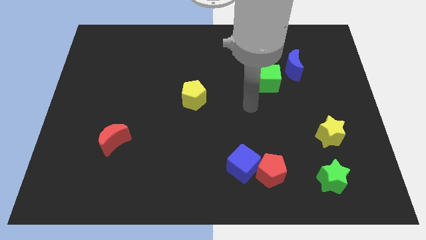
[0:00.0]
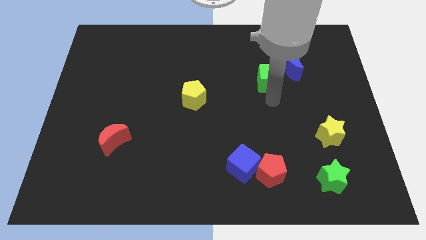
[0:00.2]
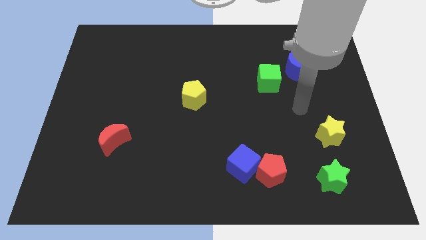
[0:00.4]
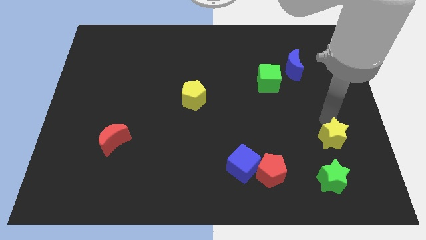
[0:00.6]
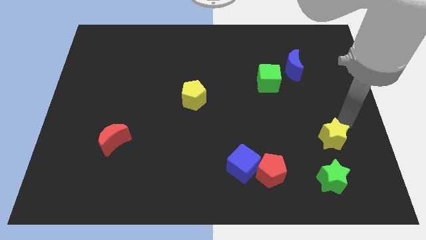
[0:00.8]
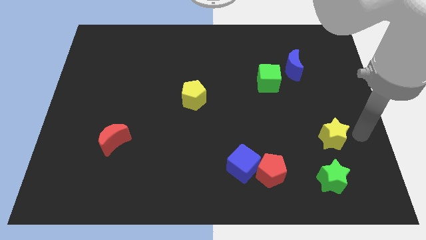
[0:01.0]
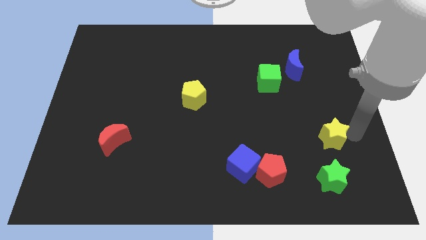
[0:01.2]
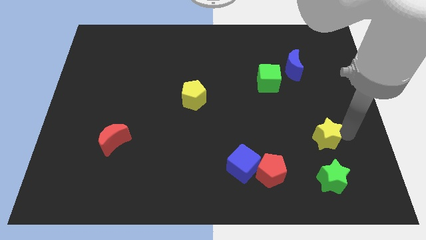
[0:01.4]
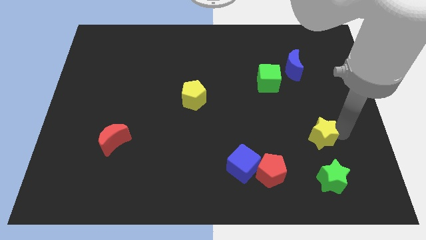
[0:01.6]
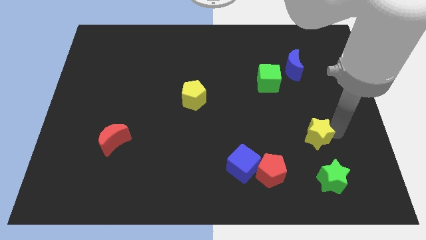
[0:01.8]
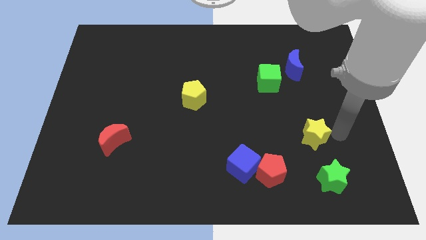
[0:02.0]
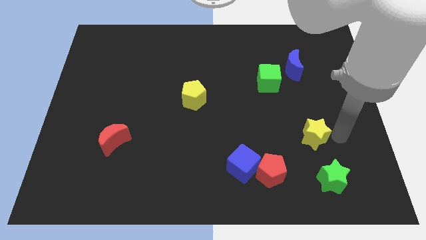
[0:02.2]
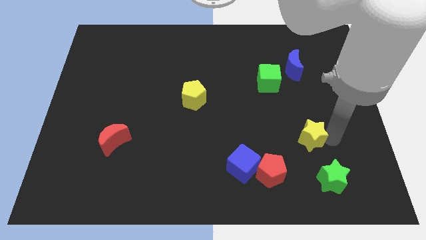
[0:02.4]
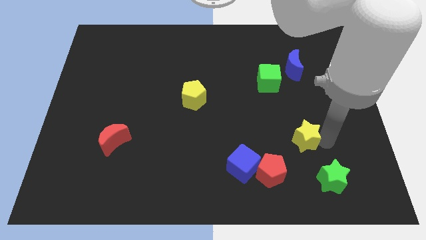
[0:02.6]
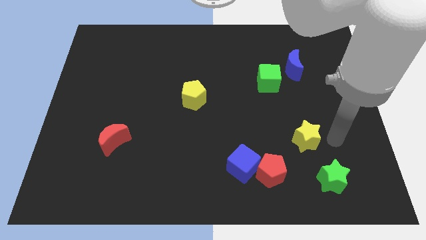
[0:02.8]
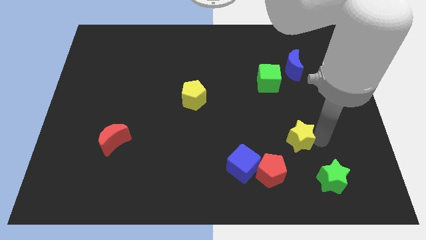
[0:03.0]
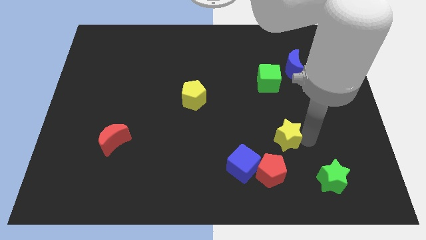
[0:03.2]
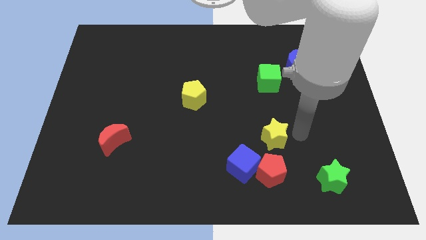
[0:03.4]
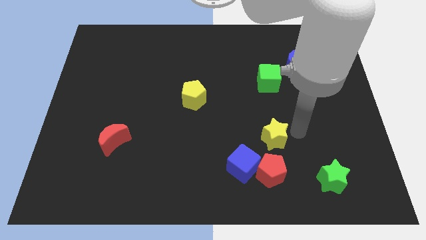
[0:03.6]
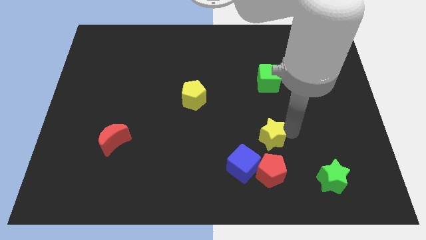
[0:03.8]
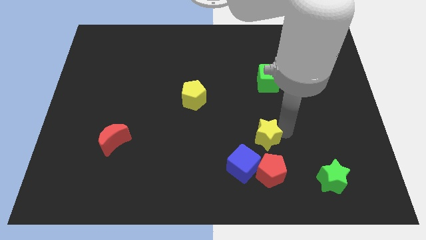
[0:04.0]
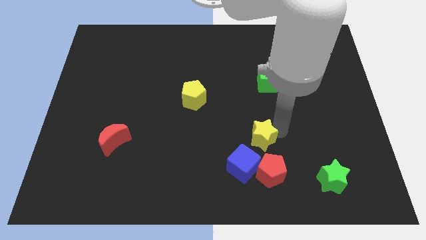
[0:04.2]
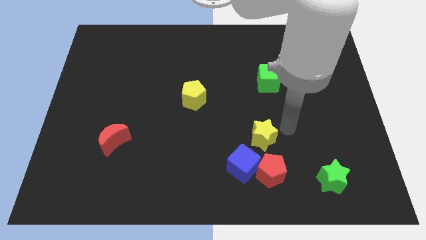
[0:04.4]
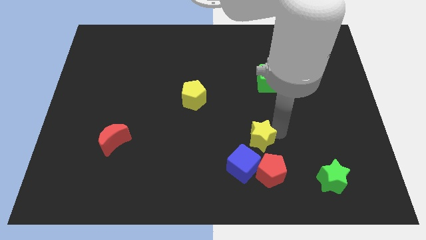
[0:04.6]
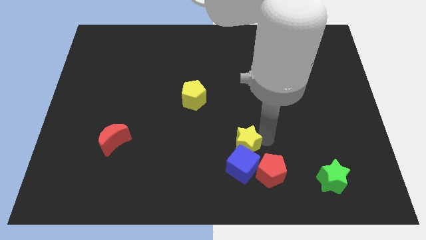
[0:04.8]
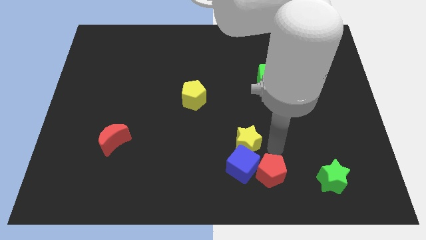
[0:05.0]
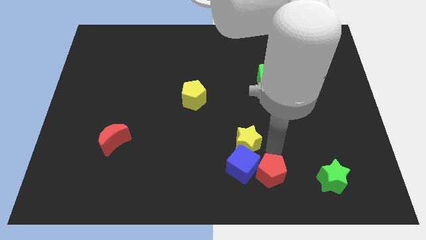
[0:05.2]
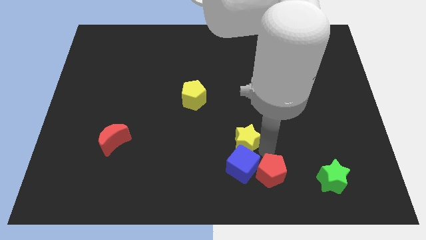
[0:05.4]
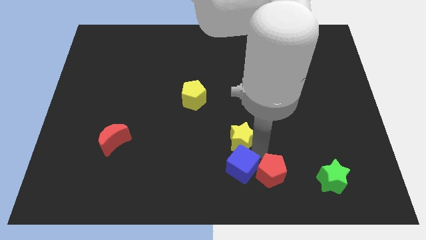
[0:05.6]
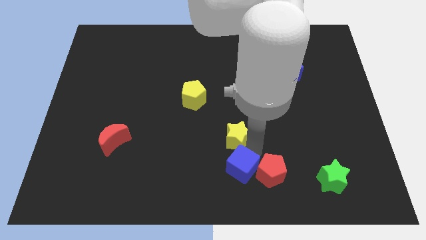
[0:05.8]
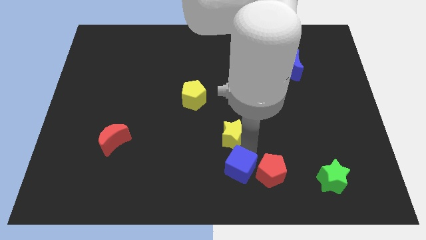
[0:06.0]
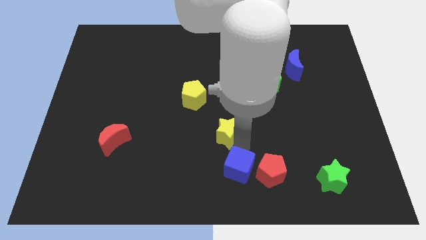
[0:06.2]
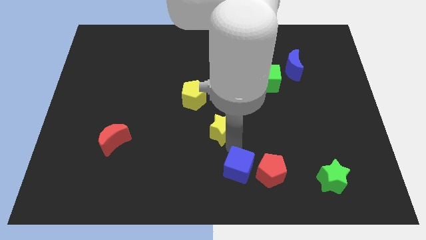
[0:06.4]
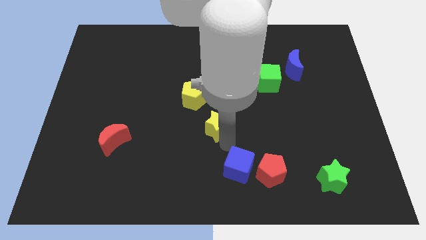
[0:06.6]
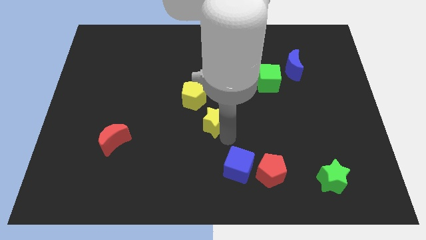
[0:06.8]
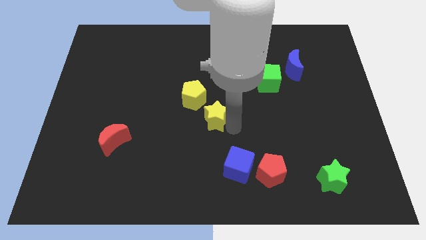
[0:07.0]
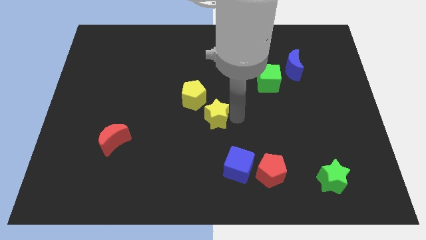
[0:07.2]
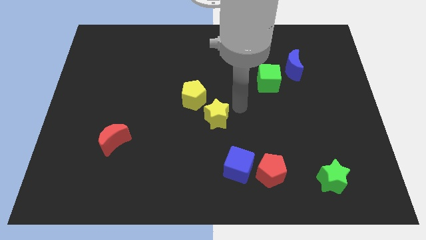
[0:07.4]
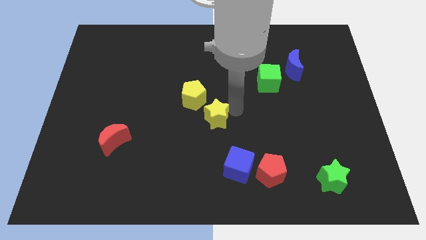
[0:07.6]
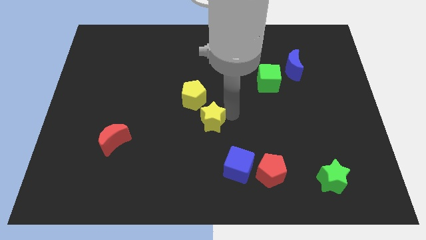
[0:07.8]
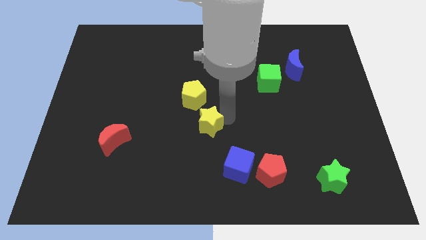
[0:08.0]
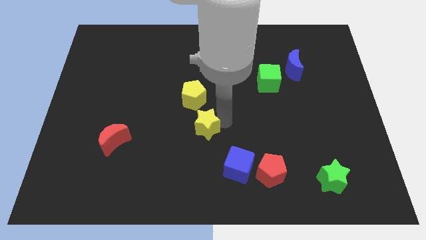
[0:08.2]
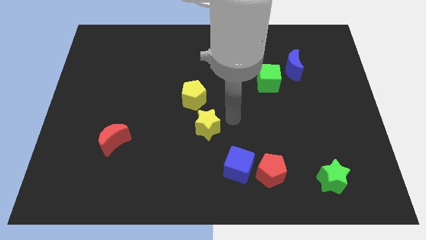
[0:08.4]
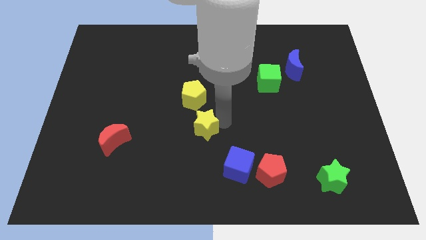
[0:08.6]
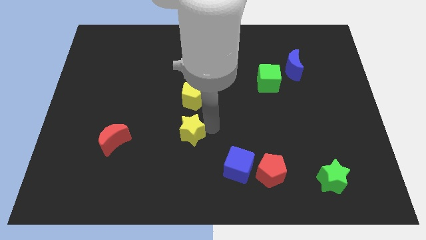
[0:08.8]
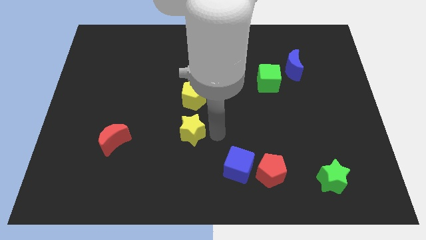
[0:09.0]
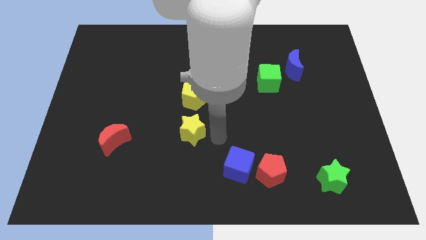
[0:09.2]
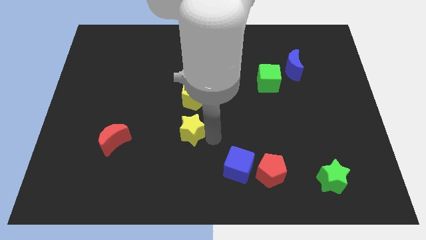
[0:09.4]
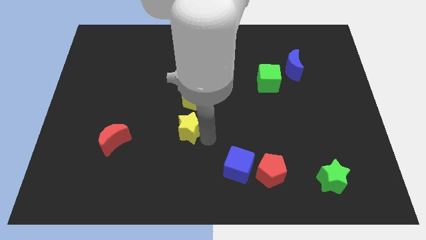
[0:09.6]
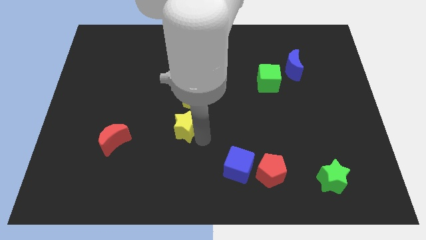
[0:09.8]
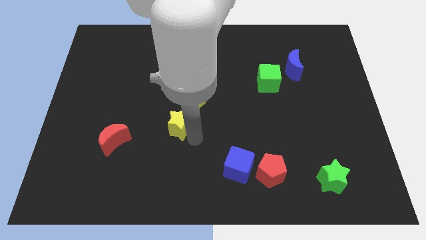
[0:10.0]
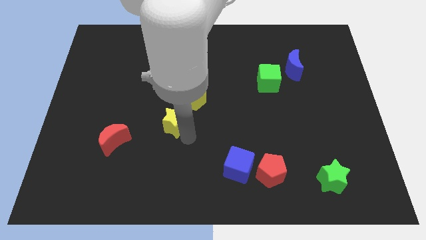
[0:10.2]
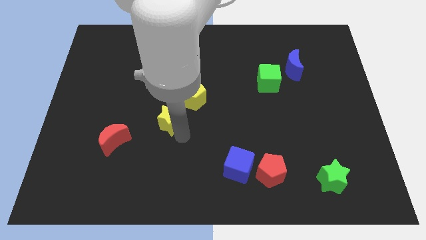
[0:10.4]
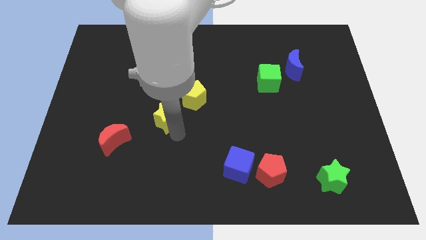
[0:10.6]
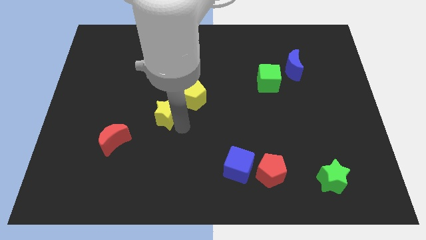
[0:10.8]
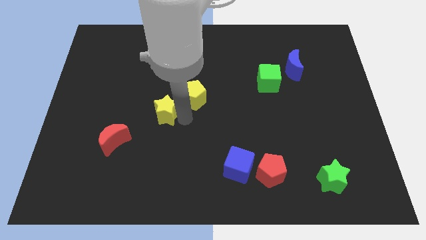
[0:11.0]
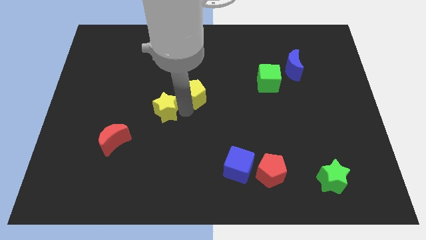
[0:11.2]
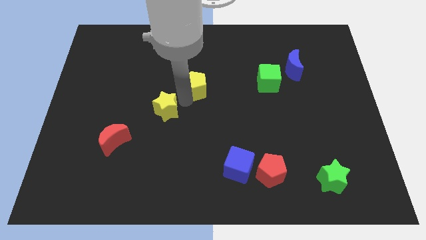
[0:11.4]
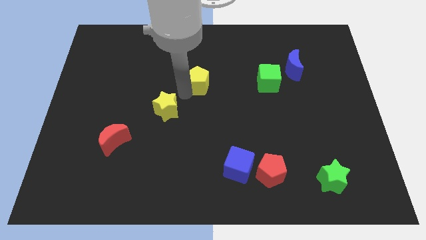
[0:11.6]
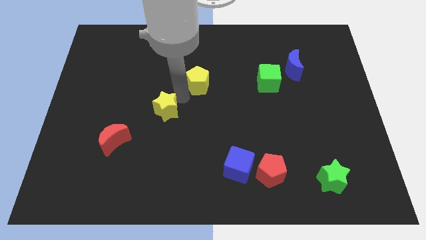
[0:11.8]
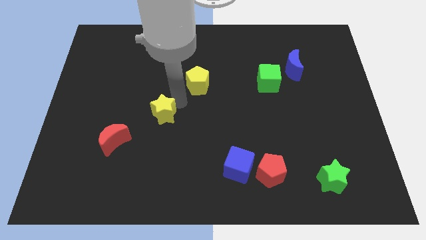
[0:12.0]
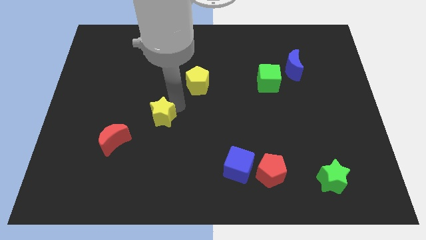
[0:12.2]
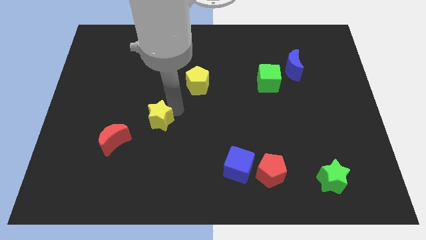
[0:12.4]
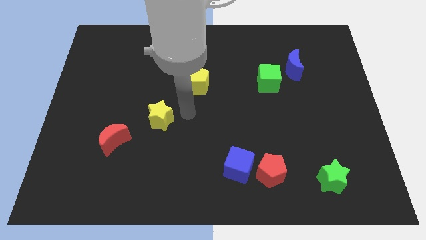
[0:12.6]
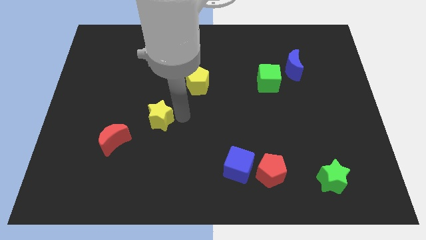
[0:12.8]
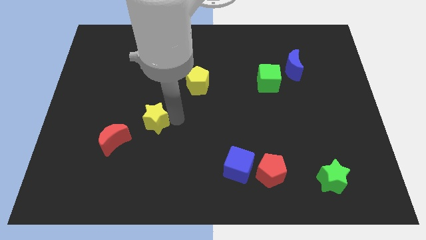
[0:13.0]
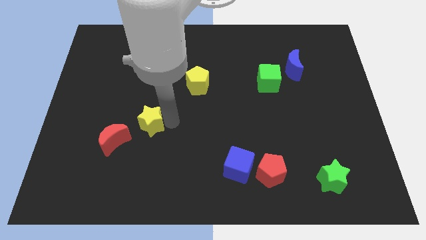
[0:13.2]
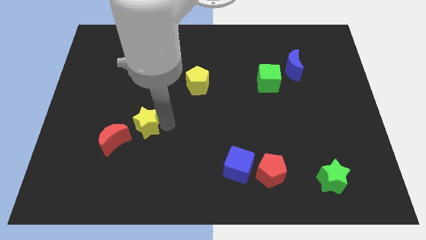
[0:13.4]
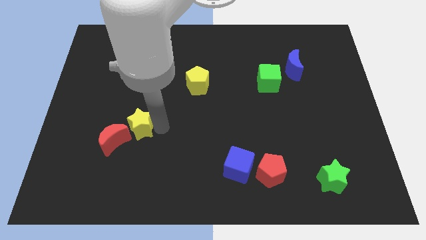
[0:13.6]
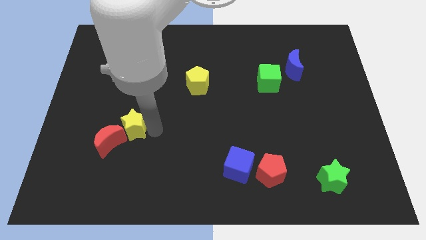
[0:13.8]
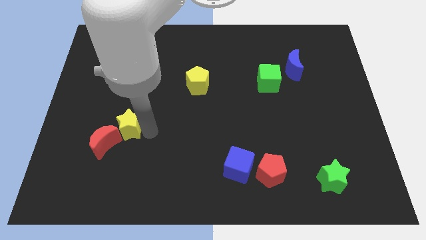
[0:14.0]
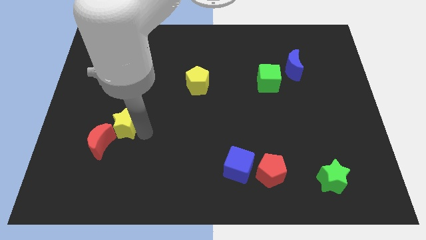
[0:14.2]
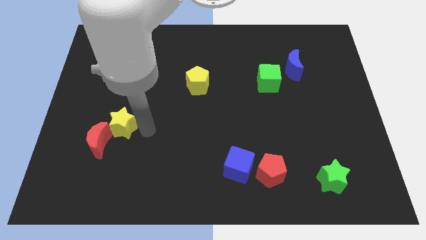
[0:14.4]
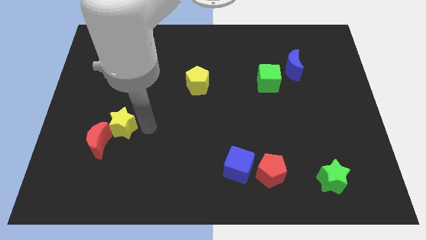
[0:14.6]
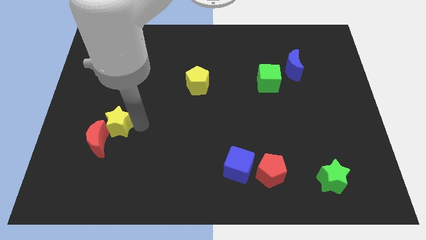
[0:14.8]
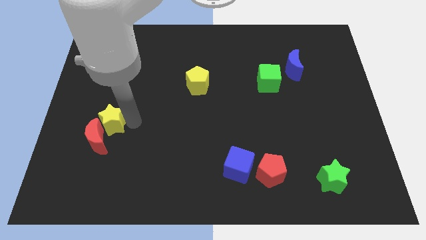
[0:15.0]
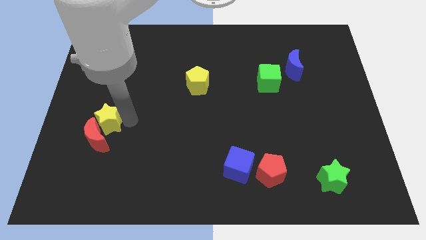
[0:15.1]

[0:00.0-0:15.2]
put the yellow star diagonally up and to the left of the red moon
